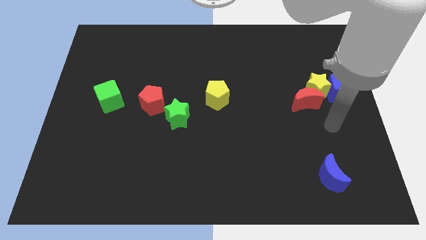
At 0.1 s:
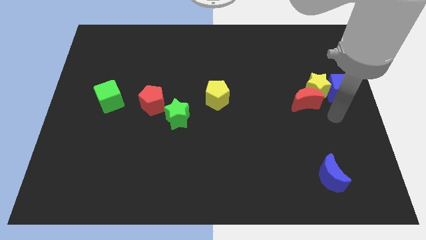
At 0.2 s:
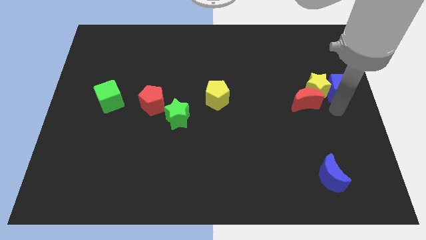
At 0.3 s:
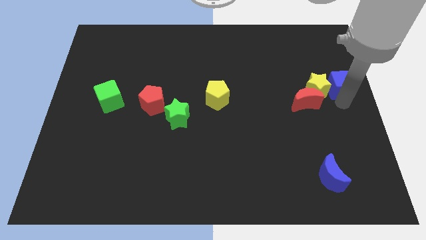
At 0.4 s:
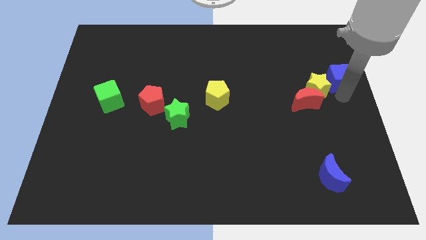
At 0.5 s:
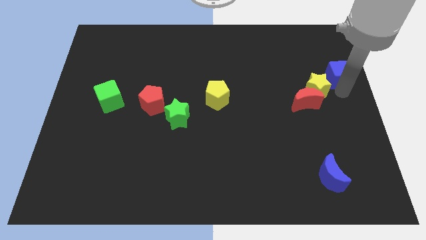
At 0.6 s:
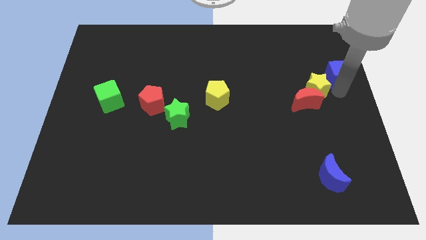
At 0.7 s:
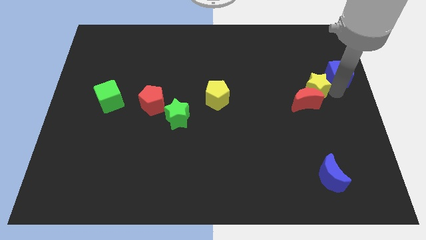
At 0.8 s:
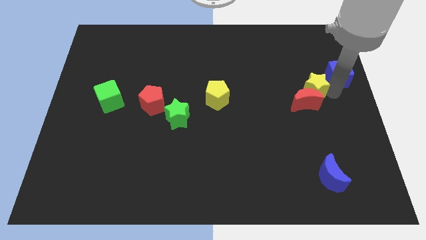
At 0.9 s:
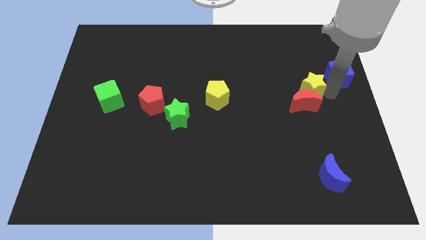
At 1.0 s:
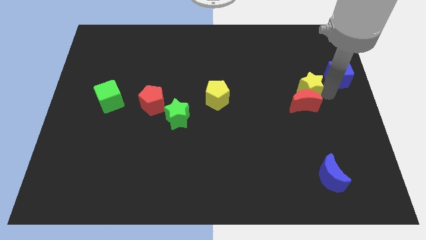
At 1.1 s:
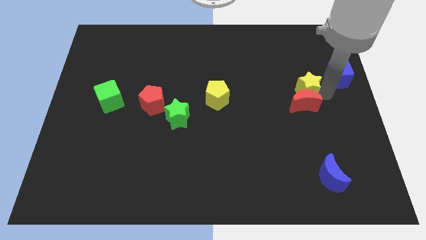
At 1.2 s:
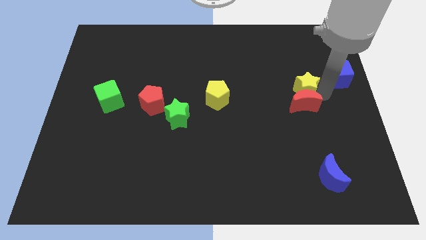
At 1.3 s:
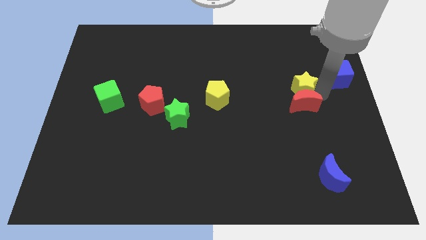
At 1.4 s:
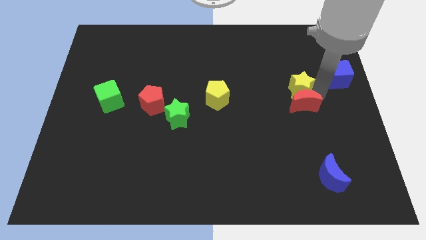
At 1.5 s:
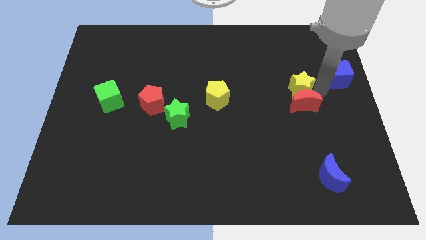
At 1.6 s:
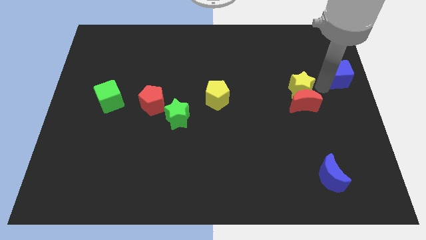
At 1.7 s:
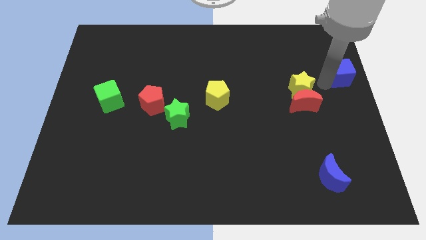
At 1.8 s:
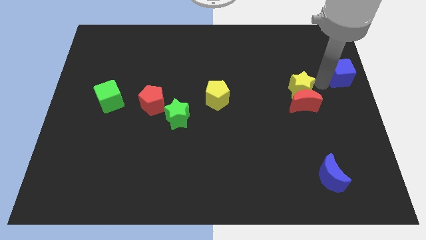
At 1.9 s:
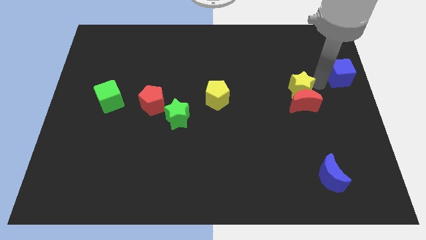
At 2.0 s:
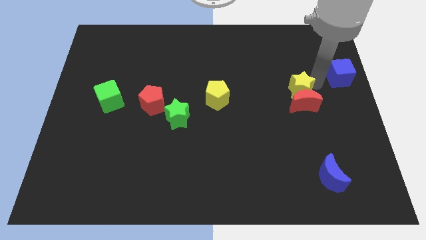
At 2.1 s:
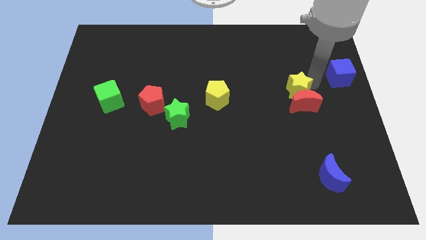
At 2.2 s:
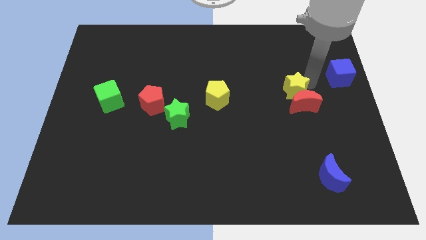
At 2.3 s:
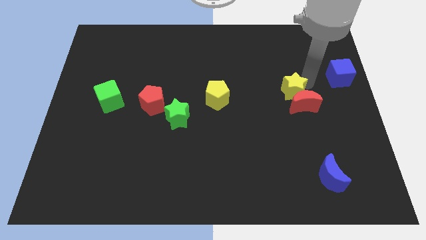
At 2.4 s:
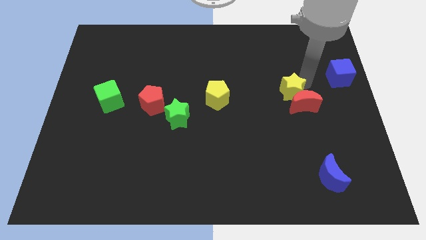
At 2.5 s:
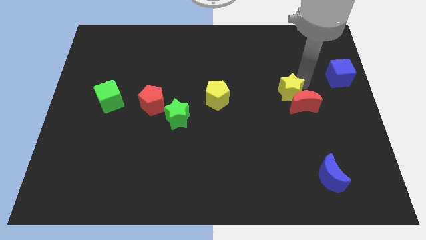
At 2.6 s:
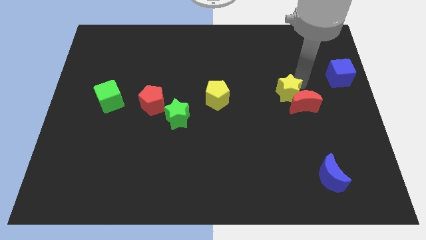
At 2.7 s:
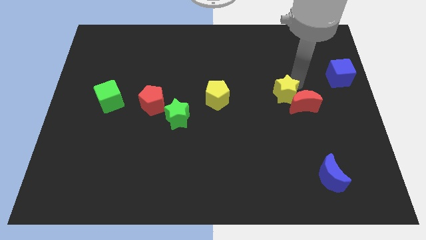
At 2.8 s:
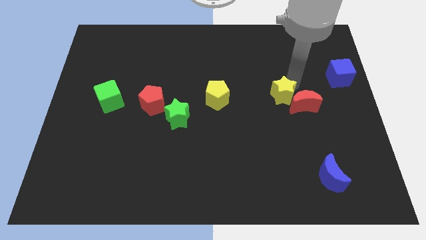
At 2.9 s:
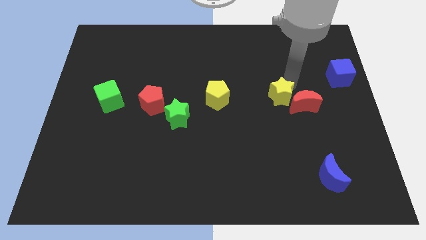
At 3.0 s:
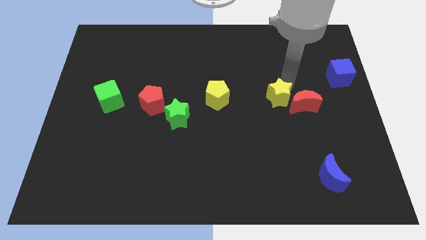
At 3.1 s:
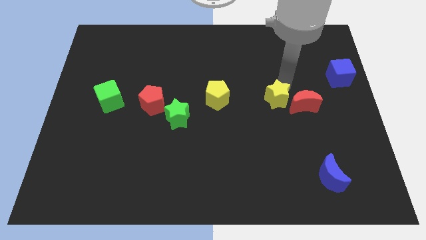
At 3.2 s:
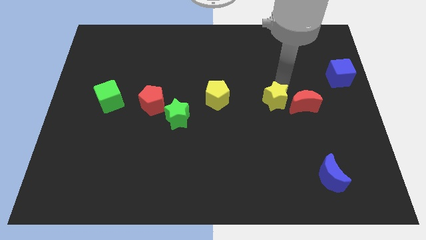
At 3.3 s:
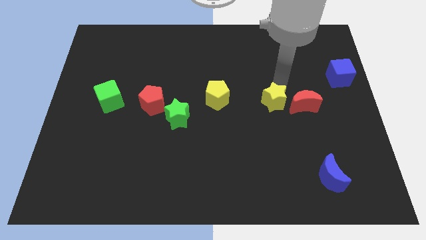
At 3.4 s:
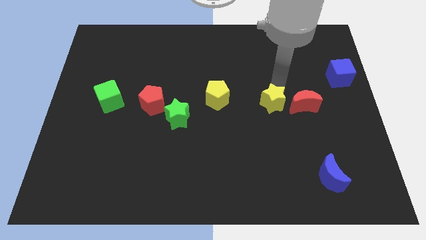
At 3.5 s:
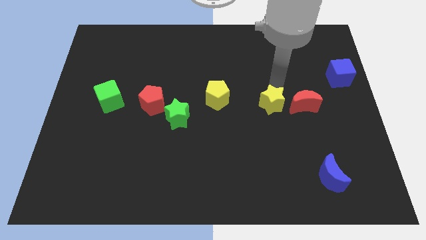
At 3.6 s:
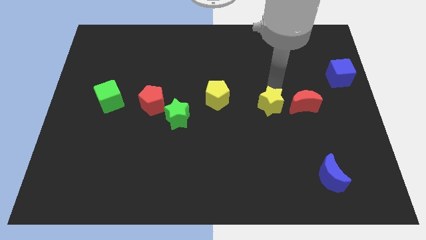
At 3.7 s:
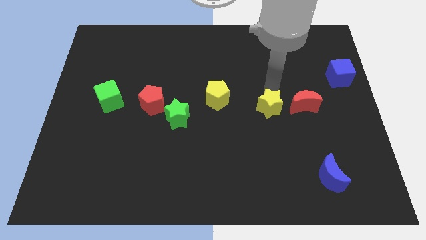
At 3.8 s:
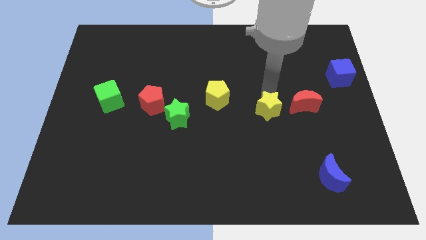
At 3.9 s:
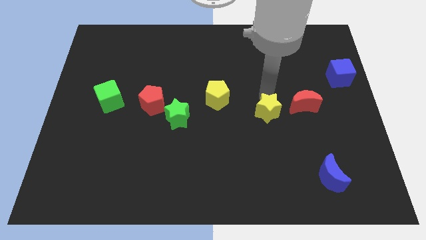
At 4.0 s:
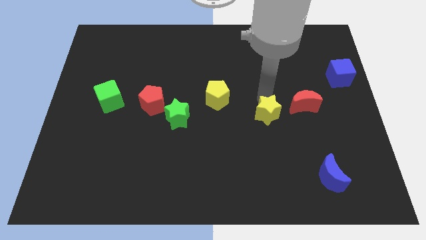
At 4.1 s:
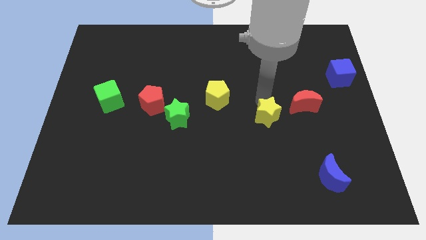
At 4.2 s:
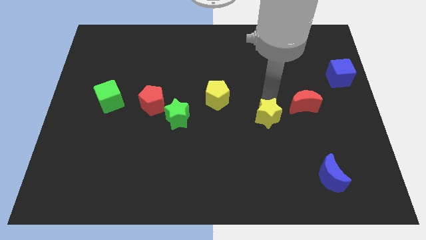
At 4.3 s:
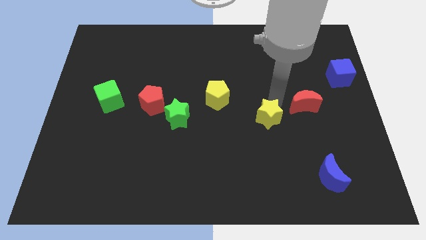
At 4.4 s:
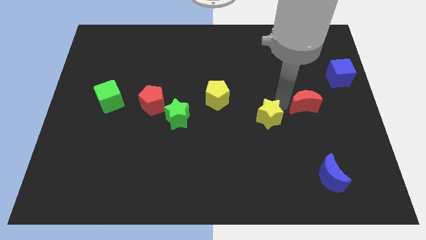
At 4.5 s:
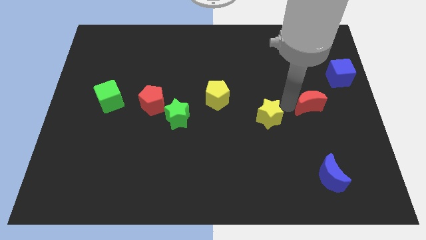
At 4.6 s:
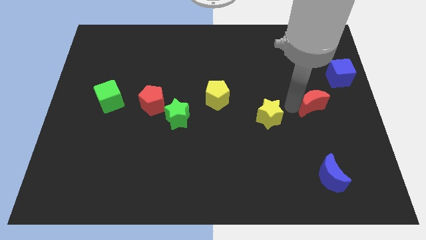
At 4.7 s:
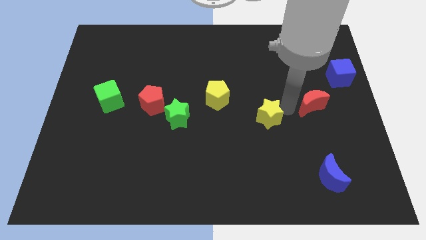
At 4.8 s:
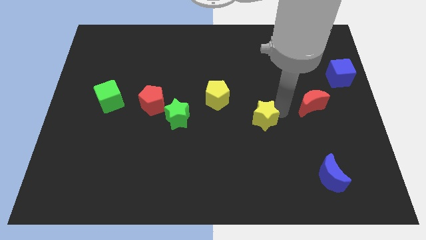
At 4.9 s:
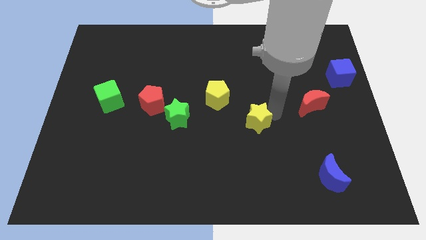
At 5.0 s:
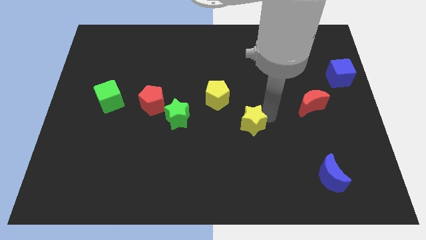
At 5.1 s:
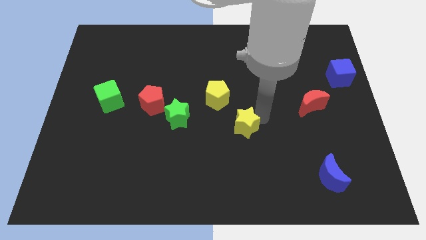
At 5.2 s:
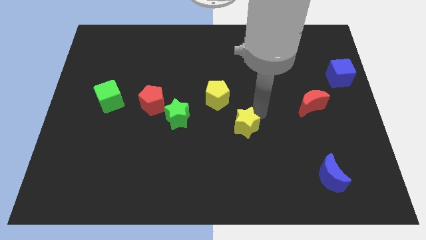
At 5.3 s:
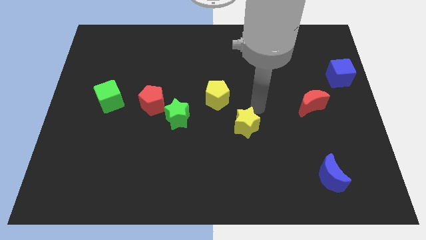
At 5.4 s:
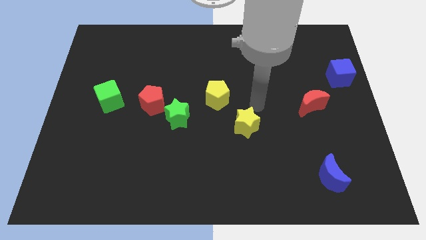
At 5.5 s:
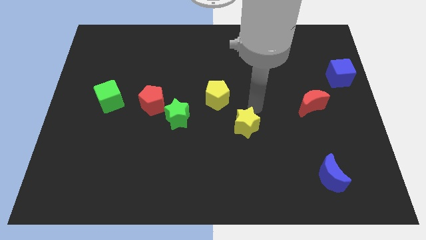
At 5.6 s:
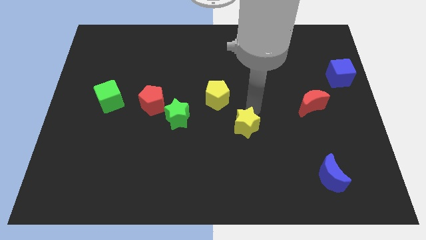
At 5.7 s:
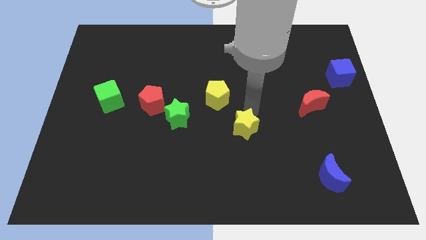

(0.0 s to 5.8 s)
slide the yellow star downwards and then to the left

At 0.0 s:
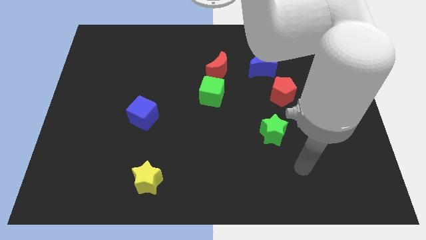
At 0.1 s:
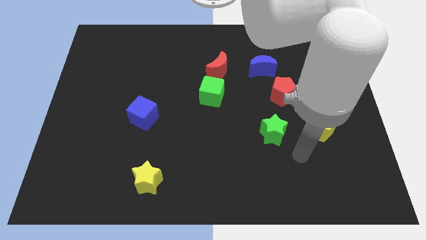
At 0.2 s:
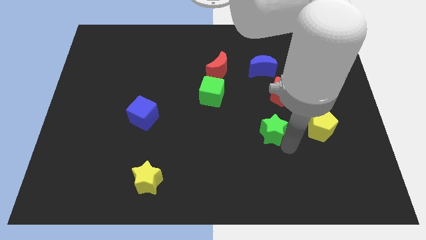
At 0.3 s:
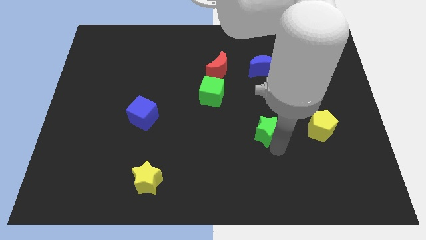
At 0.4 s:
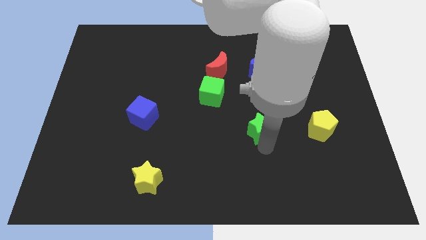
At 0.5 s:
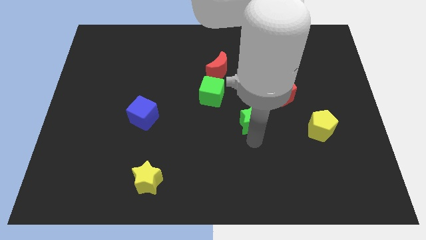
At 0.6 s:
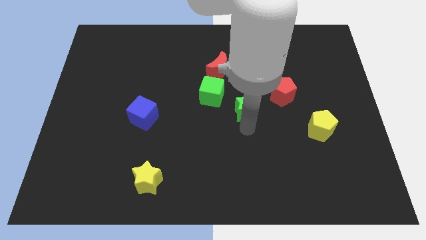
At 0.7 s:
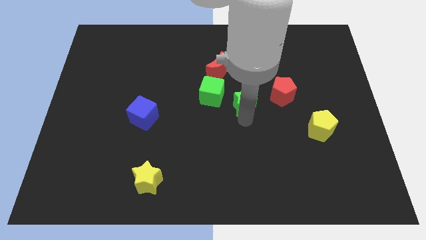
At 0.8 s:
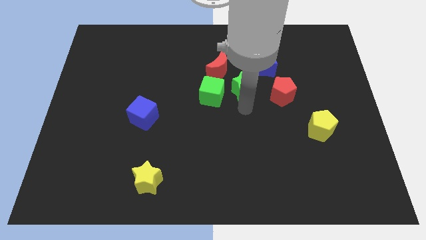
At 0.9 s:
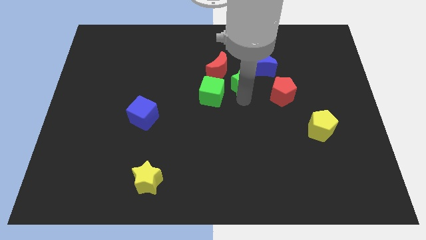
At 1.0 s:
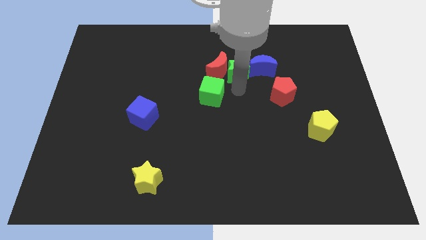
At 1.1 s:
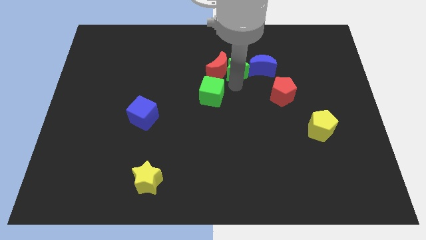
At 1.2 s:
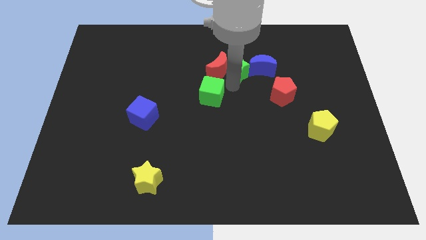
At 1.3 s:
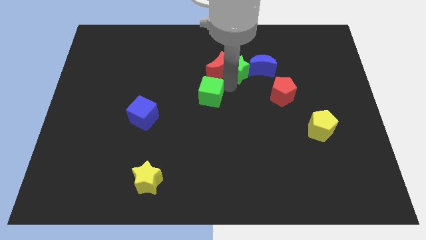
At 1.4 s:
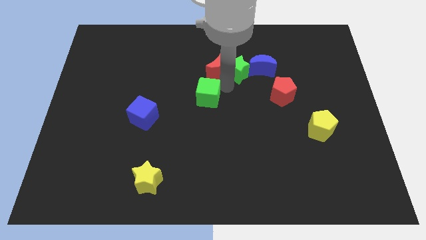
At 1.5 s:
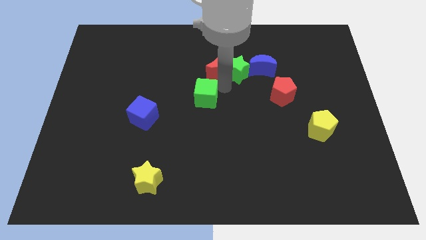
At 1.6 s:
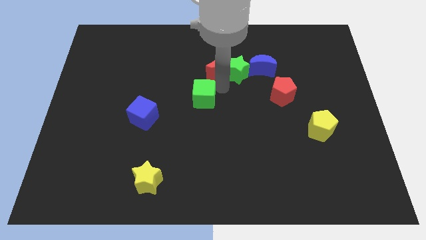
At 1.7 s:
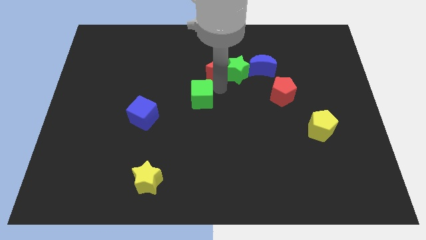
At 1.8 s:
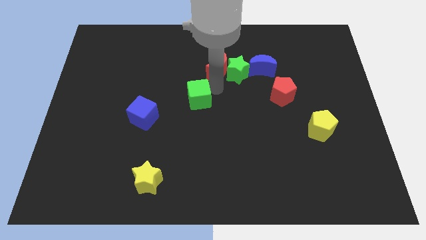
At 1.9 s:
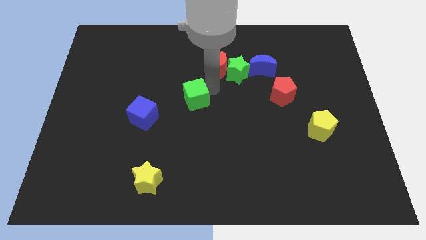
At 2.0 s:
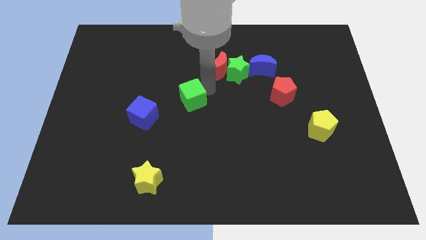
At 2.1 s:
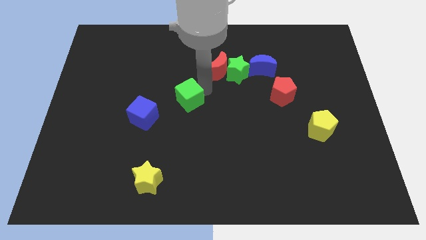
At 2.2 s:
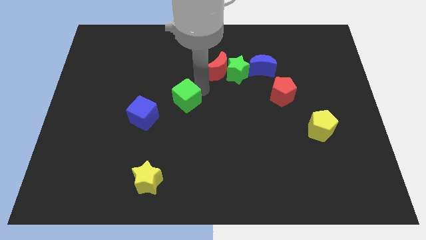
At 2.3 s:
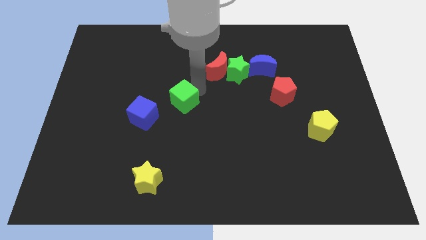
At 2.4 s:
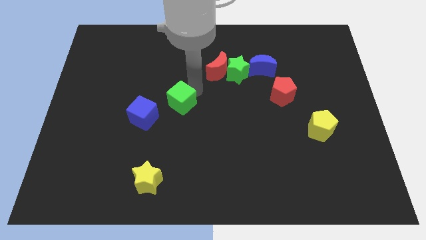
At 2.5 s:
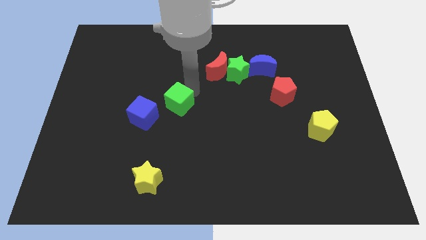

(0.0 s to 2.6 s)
move the green cube down and to the left diagonally a bit
